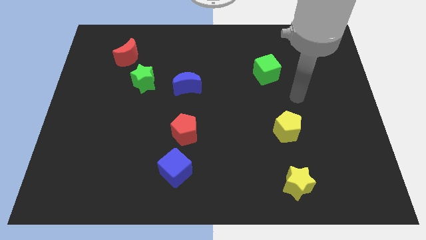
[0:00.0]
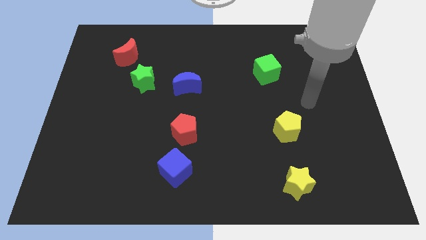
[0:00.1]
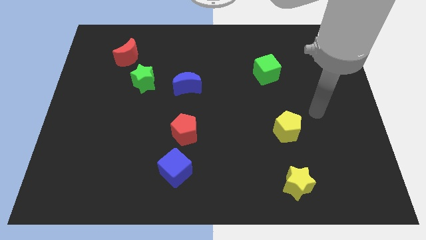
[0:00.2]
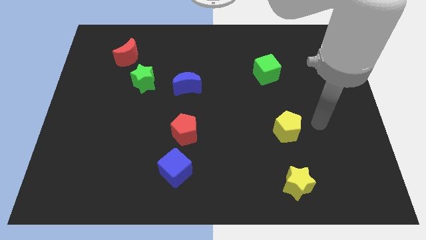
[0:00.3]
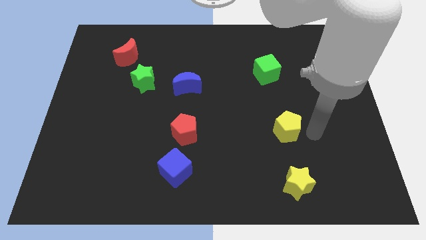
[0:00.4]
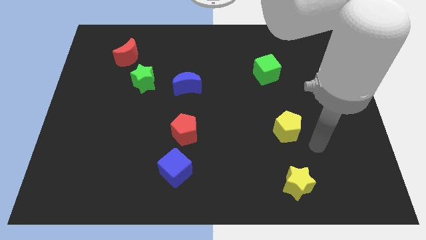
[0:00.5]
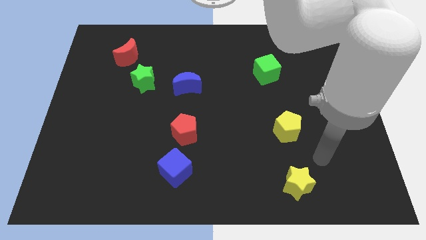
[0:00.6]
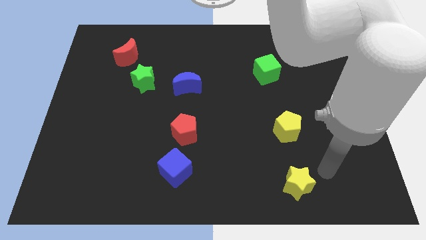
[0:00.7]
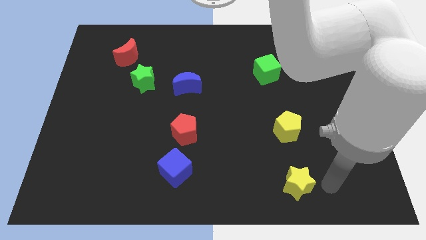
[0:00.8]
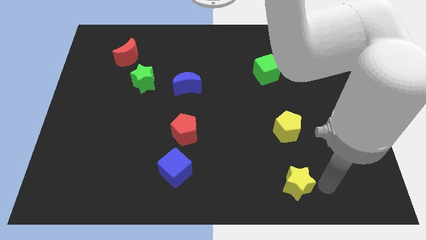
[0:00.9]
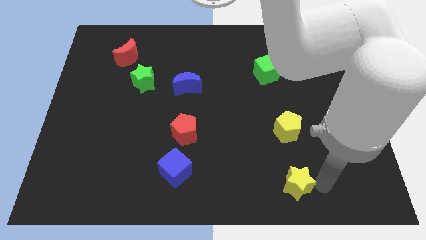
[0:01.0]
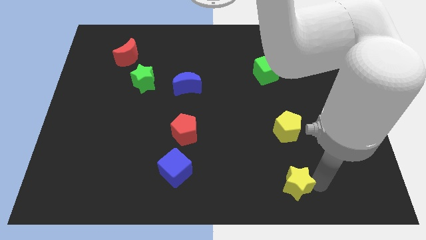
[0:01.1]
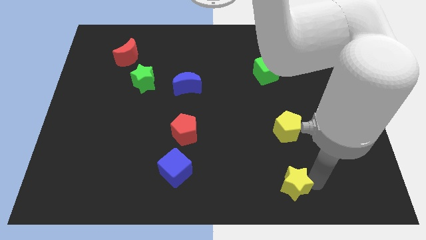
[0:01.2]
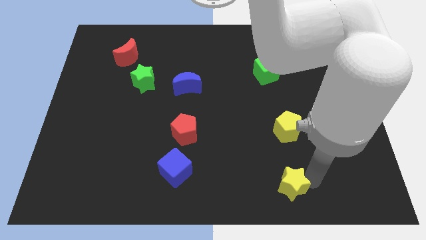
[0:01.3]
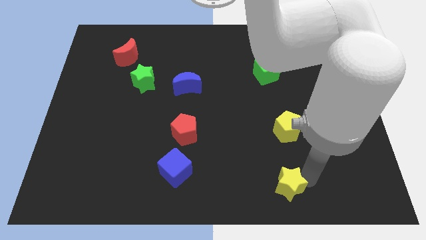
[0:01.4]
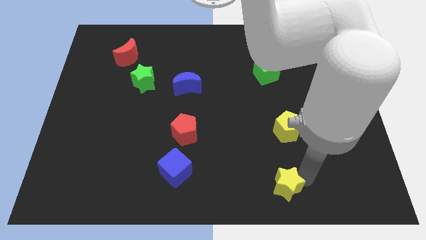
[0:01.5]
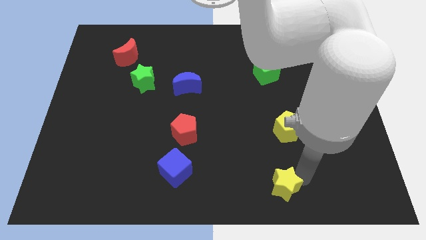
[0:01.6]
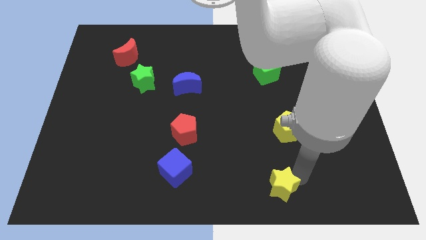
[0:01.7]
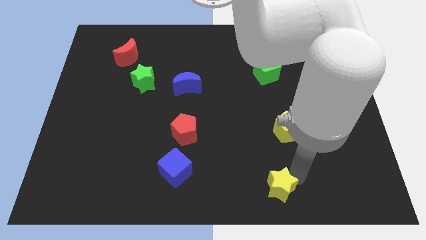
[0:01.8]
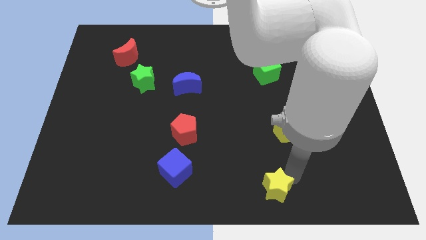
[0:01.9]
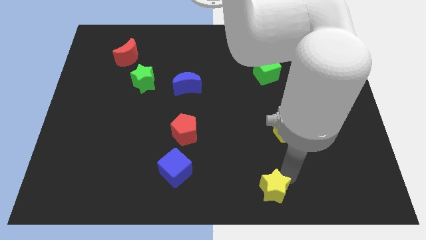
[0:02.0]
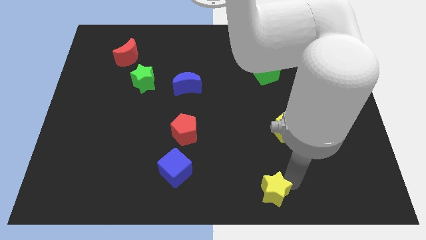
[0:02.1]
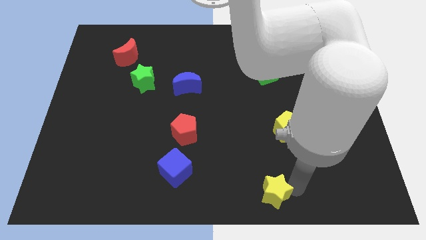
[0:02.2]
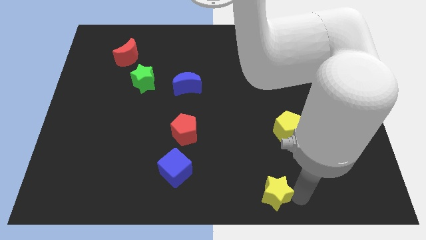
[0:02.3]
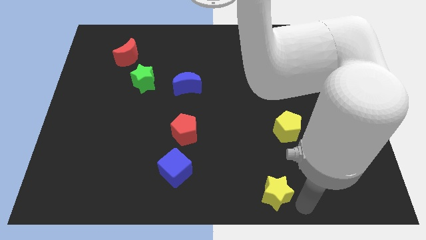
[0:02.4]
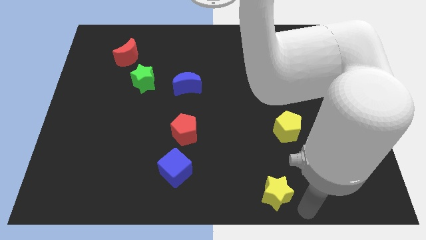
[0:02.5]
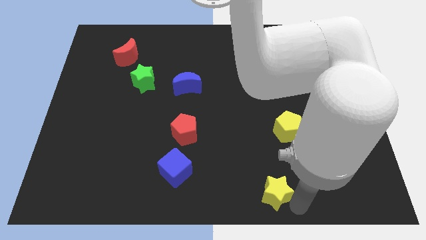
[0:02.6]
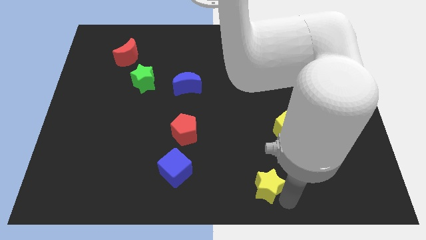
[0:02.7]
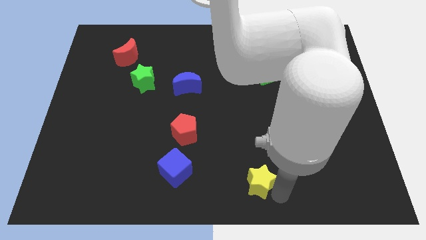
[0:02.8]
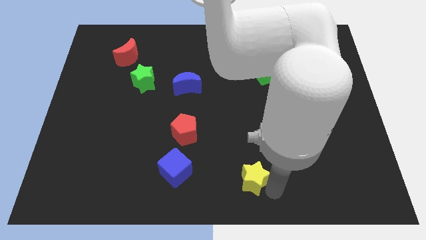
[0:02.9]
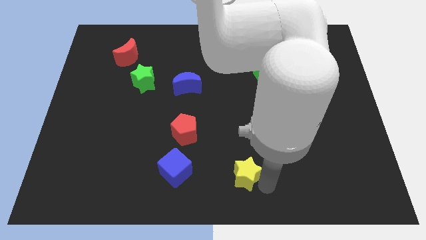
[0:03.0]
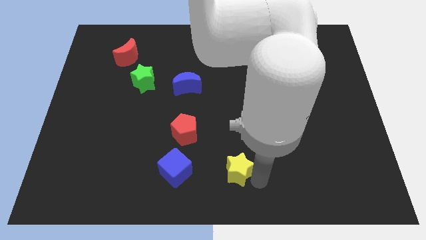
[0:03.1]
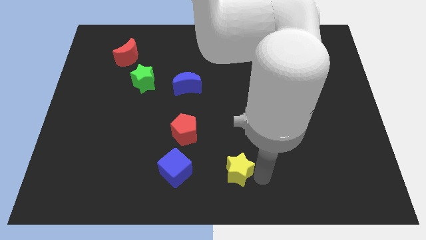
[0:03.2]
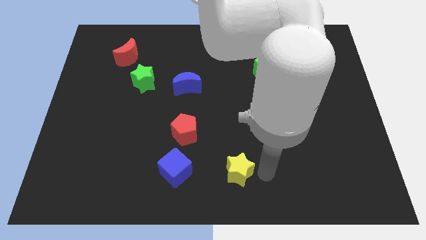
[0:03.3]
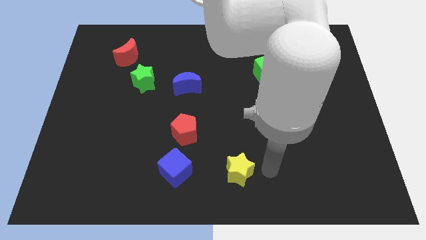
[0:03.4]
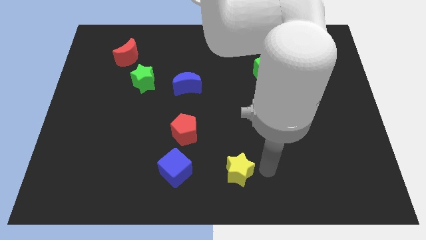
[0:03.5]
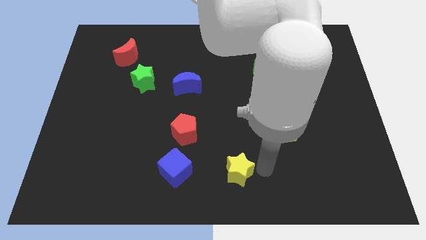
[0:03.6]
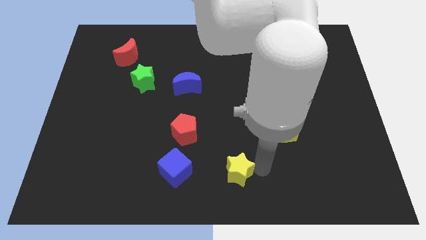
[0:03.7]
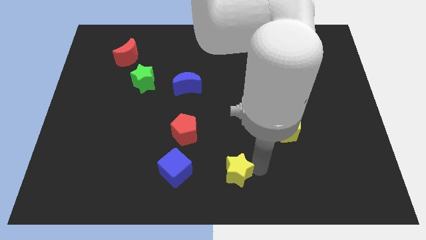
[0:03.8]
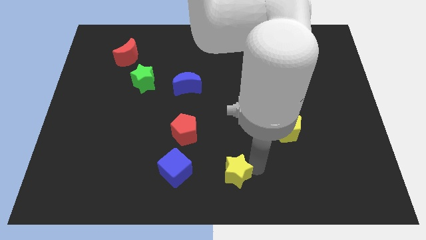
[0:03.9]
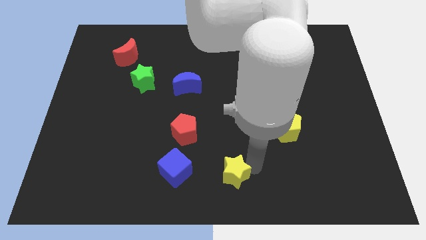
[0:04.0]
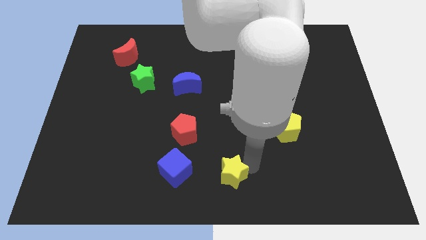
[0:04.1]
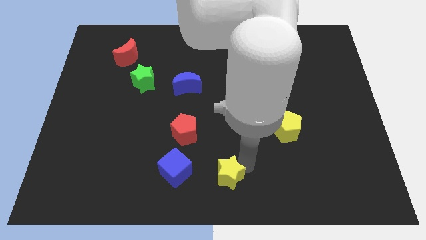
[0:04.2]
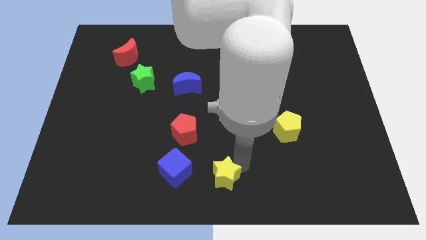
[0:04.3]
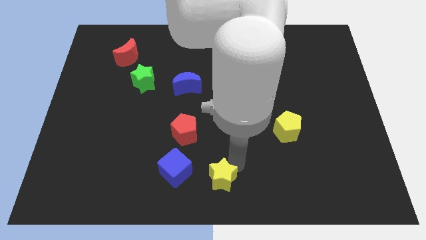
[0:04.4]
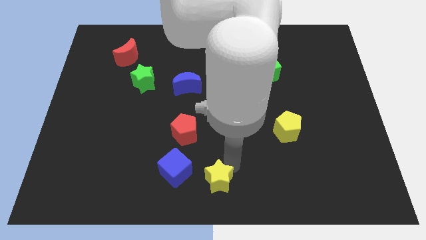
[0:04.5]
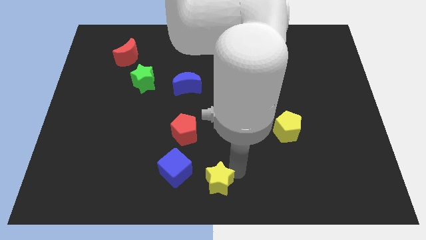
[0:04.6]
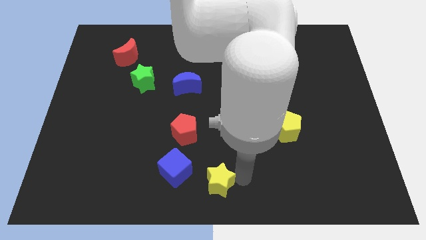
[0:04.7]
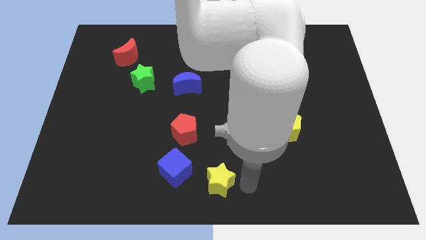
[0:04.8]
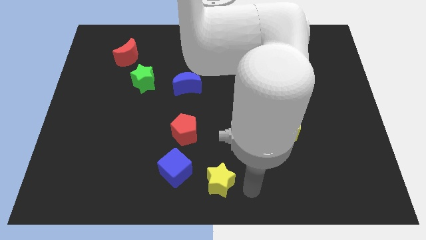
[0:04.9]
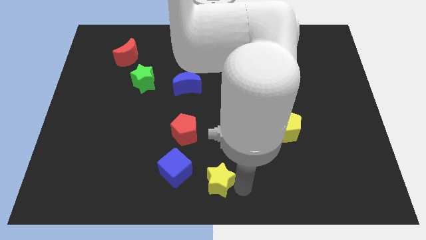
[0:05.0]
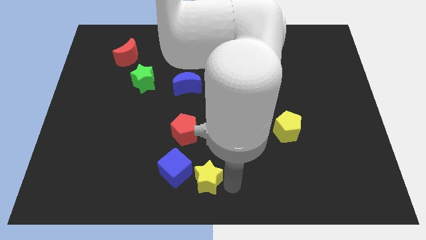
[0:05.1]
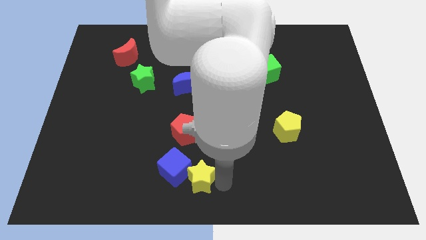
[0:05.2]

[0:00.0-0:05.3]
push the yellow star close to the blue cube

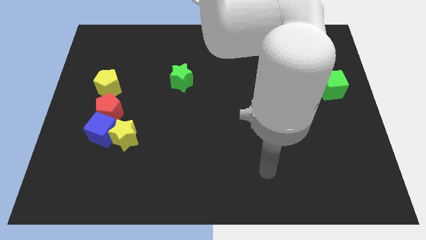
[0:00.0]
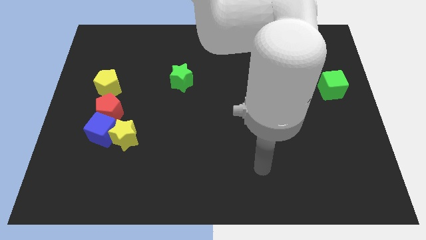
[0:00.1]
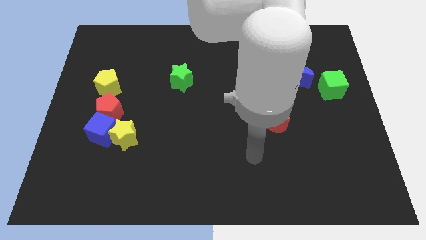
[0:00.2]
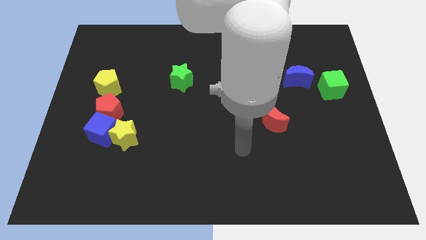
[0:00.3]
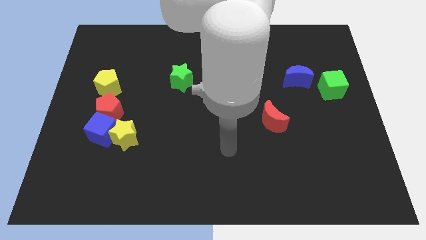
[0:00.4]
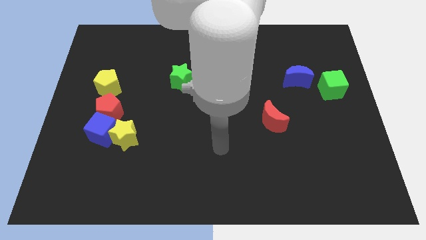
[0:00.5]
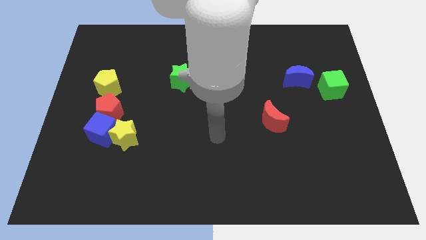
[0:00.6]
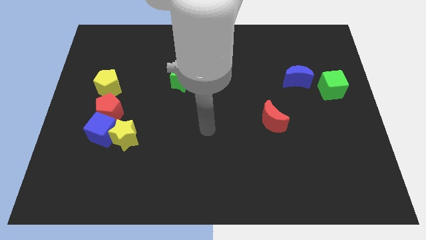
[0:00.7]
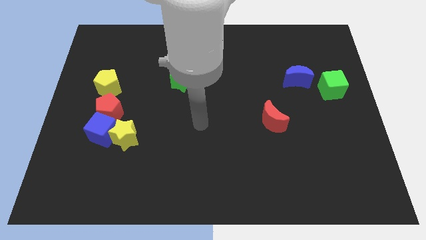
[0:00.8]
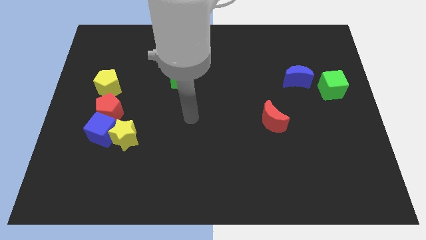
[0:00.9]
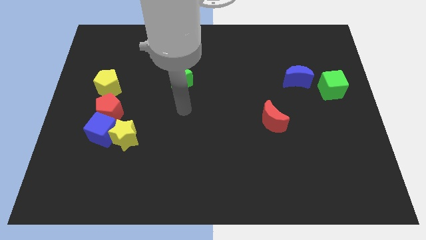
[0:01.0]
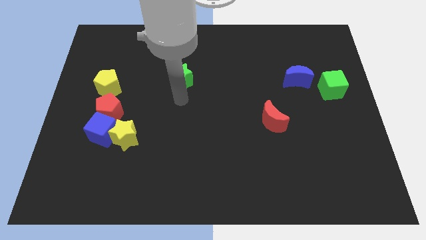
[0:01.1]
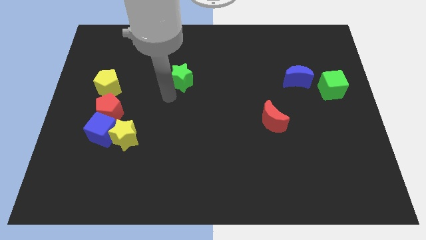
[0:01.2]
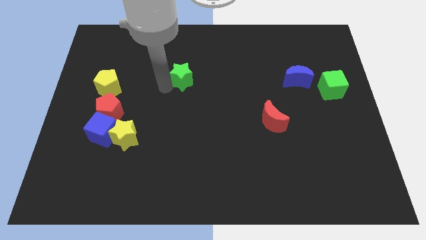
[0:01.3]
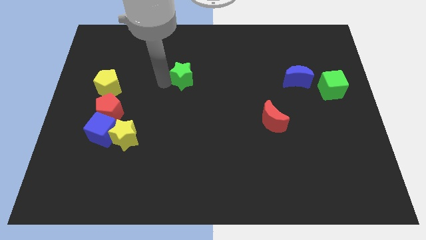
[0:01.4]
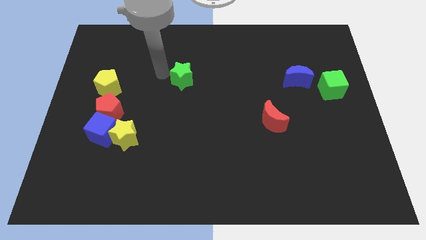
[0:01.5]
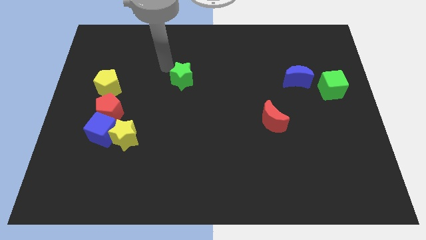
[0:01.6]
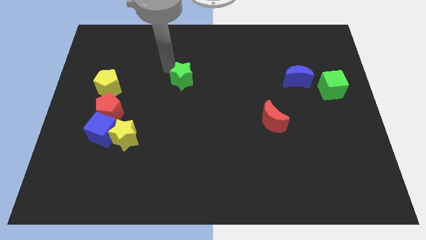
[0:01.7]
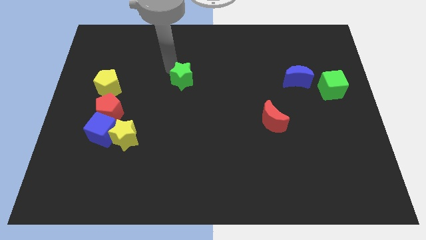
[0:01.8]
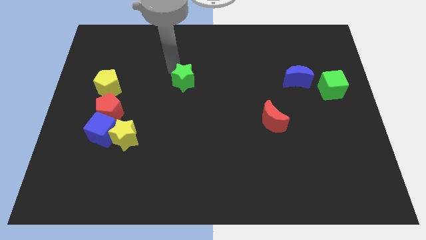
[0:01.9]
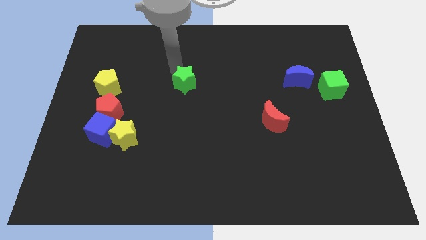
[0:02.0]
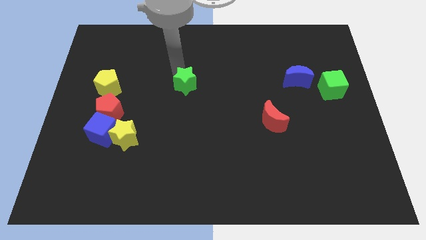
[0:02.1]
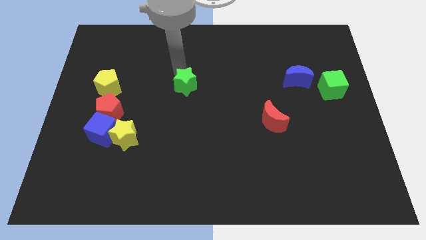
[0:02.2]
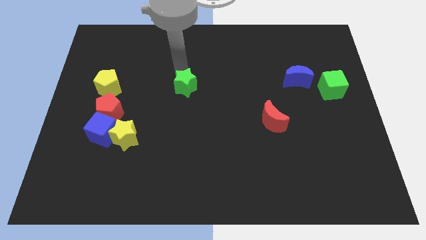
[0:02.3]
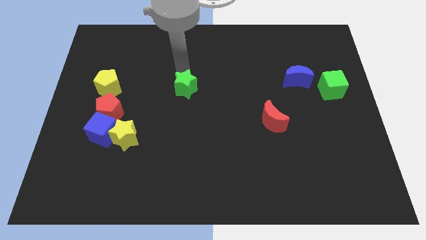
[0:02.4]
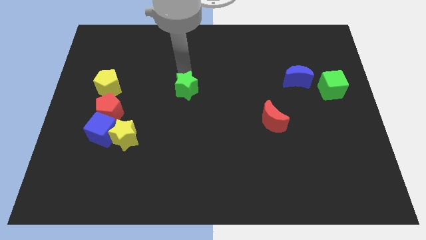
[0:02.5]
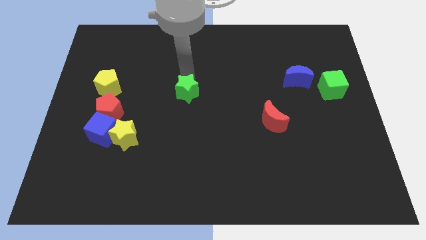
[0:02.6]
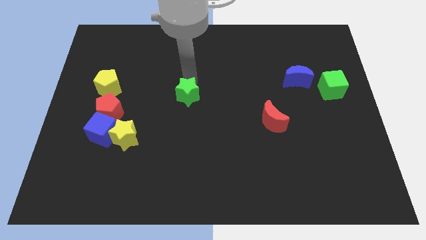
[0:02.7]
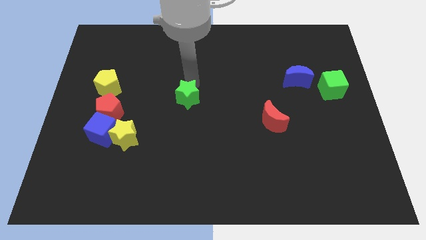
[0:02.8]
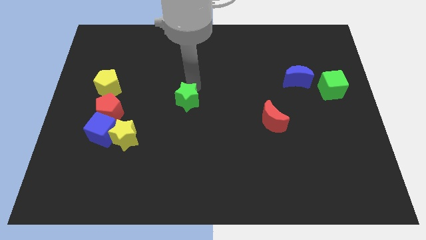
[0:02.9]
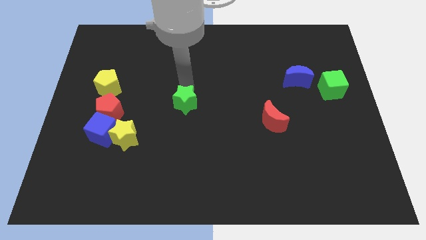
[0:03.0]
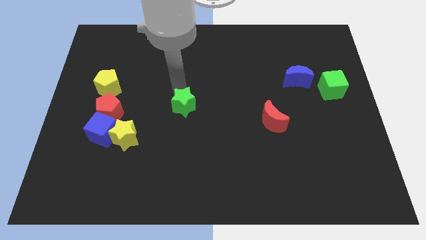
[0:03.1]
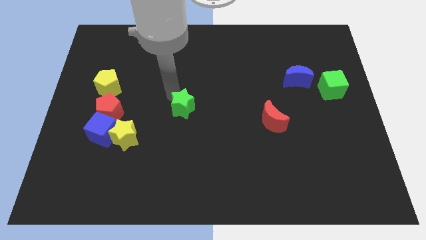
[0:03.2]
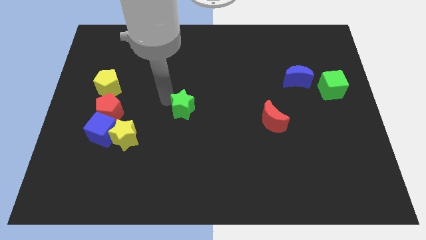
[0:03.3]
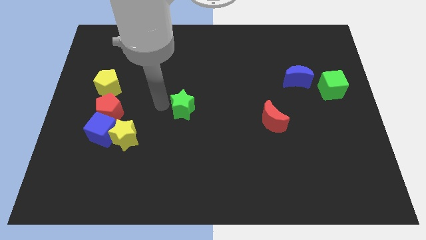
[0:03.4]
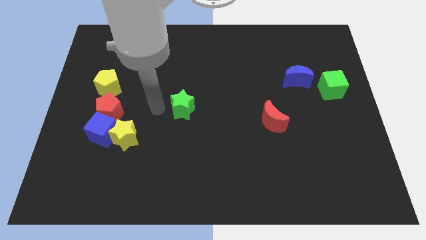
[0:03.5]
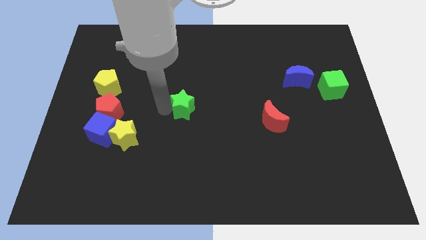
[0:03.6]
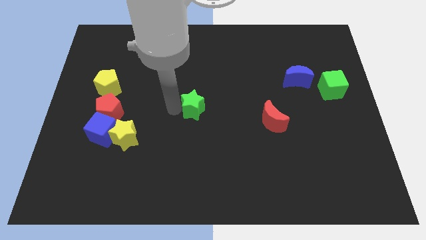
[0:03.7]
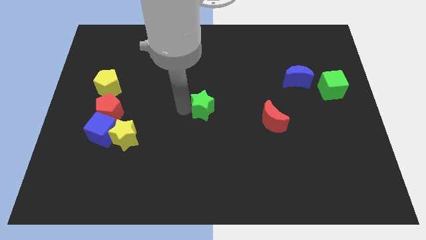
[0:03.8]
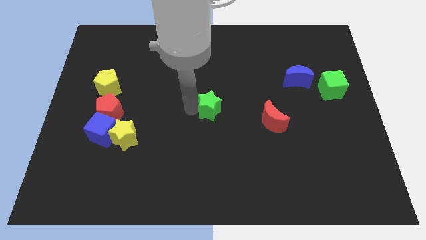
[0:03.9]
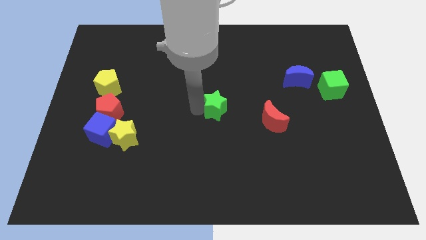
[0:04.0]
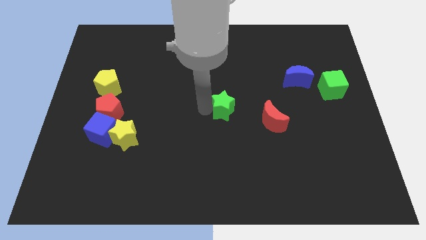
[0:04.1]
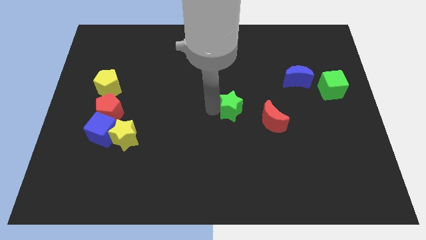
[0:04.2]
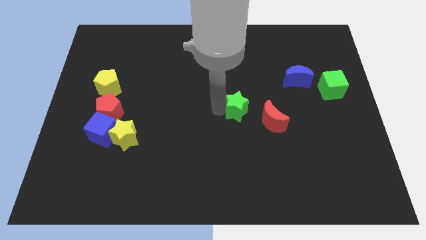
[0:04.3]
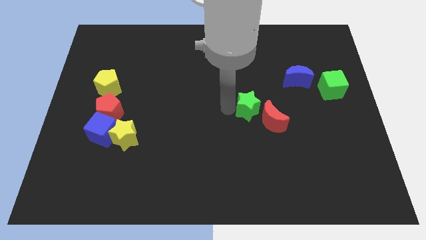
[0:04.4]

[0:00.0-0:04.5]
put the green star towards the red moon
